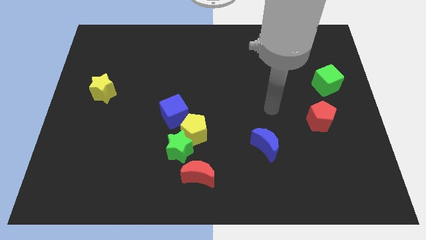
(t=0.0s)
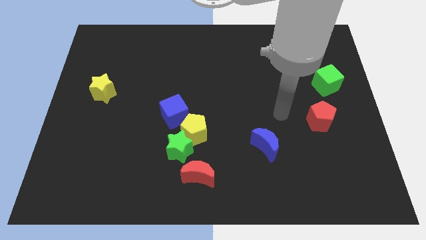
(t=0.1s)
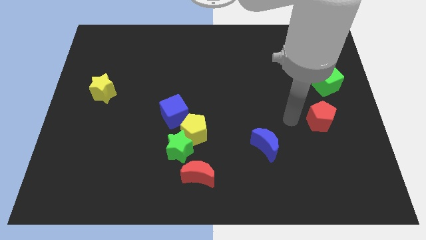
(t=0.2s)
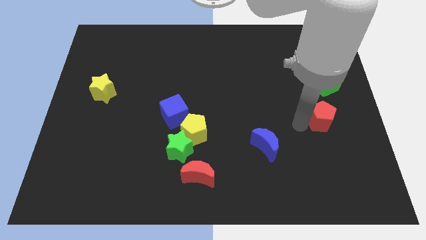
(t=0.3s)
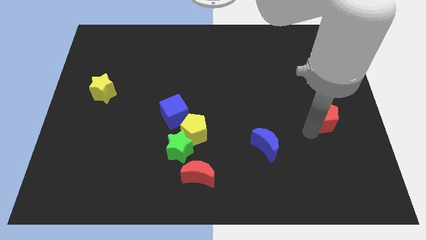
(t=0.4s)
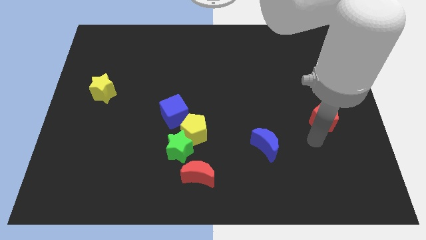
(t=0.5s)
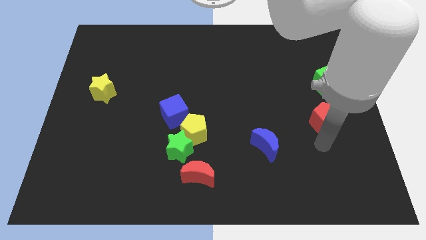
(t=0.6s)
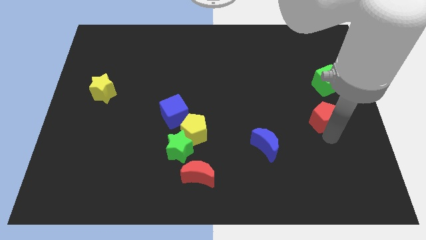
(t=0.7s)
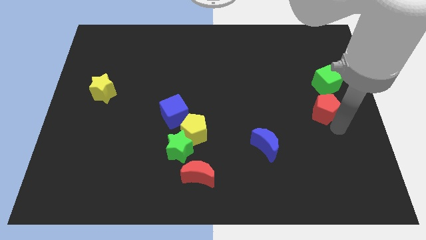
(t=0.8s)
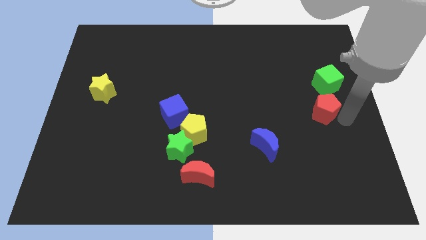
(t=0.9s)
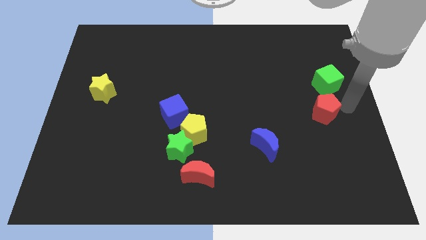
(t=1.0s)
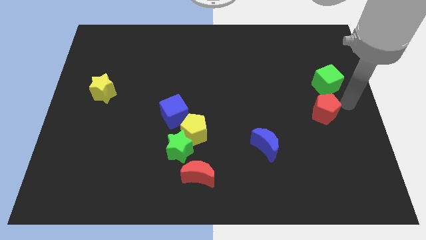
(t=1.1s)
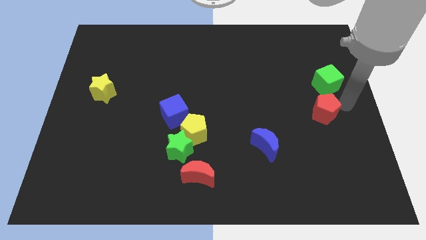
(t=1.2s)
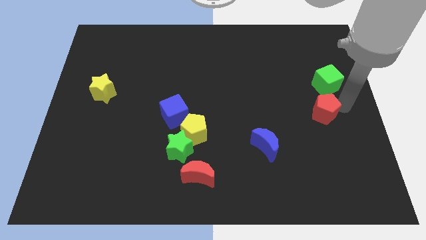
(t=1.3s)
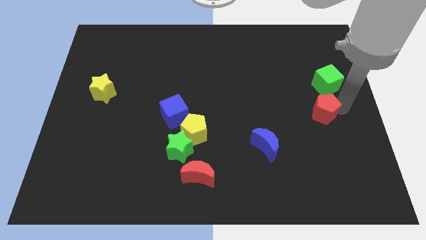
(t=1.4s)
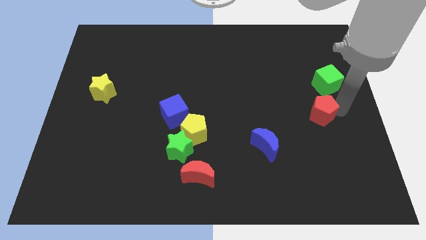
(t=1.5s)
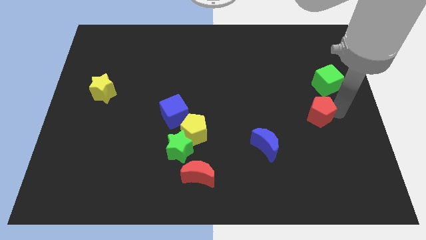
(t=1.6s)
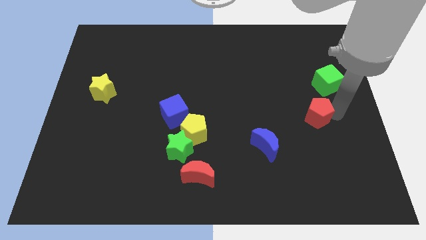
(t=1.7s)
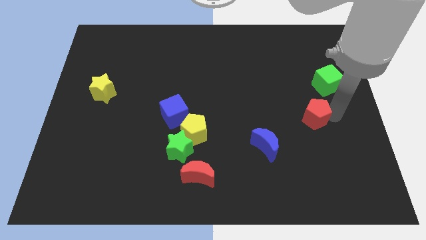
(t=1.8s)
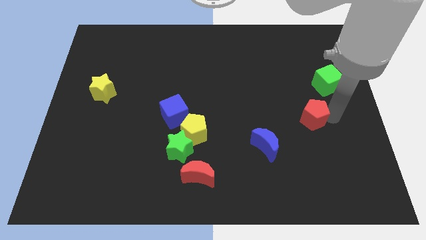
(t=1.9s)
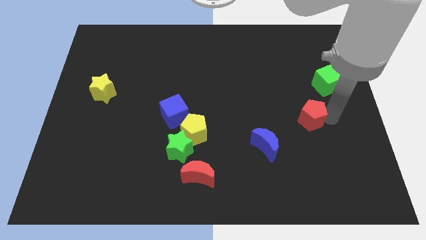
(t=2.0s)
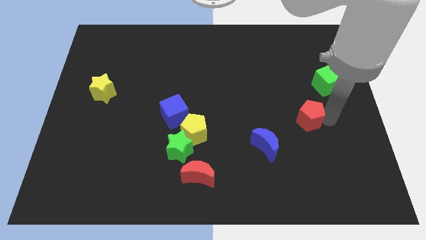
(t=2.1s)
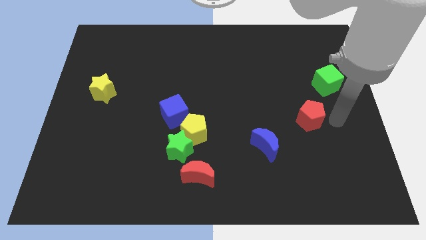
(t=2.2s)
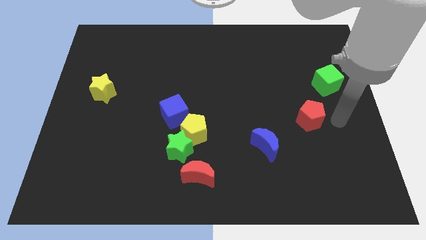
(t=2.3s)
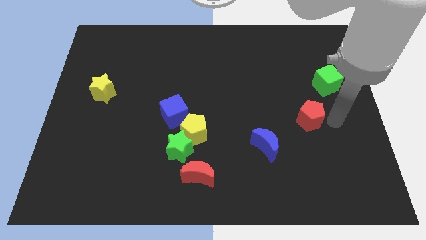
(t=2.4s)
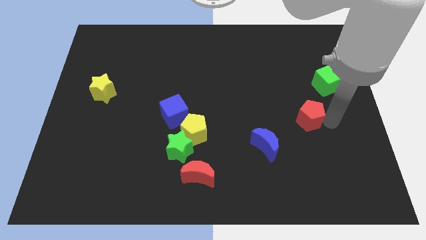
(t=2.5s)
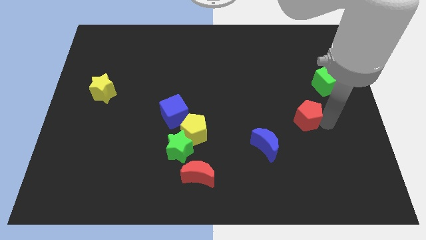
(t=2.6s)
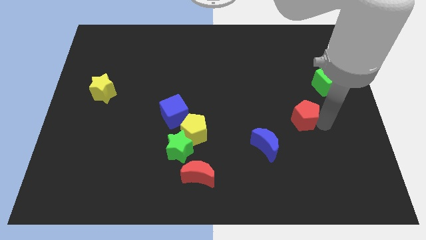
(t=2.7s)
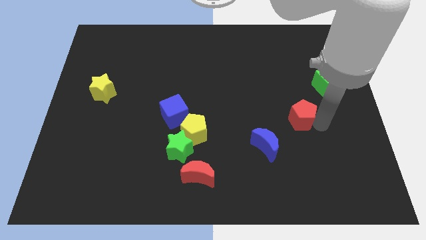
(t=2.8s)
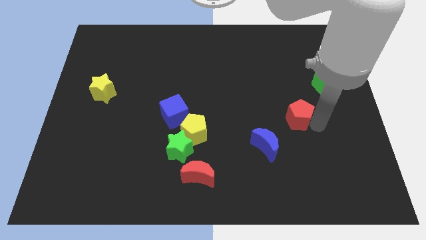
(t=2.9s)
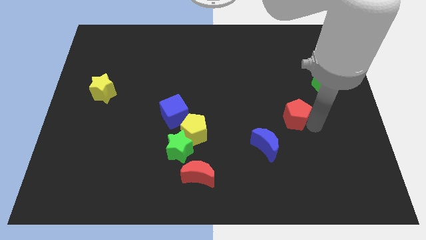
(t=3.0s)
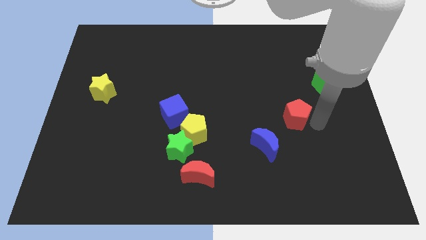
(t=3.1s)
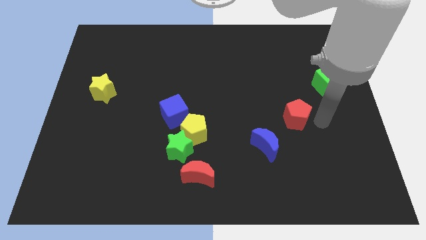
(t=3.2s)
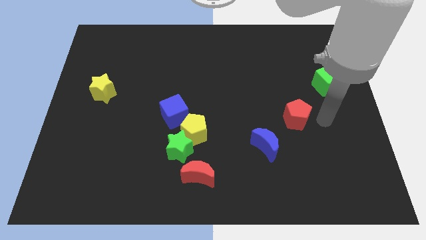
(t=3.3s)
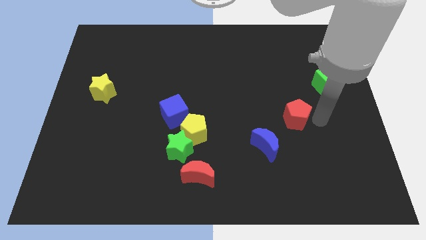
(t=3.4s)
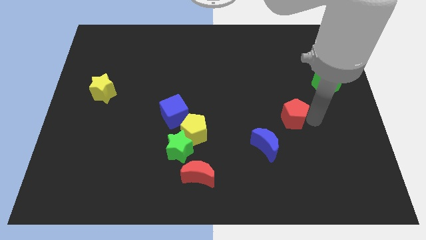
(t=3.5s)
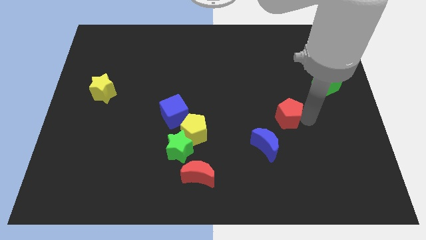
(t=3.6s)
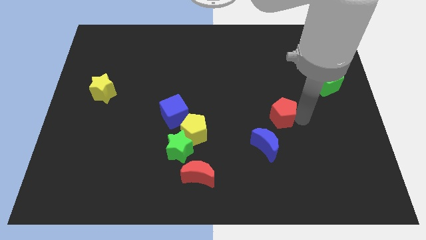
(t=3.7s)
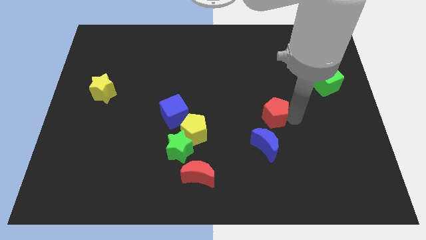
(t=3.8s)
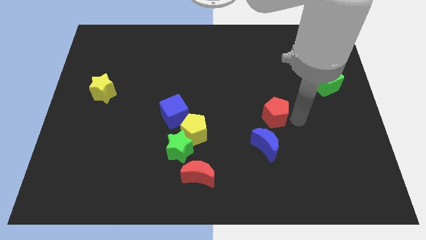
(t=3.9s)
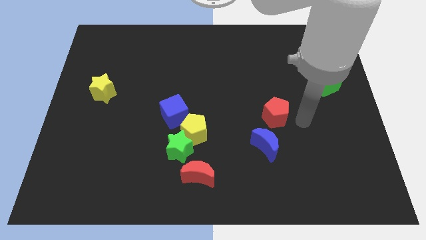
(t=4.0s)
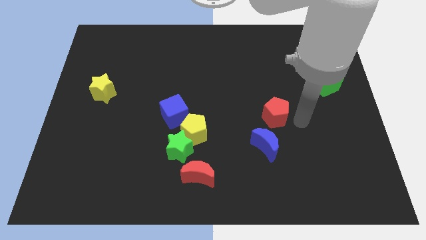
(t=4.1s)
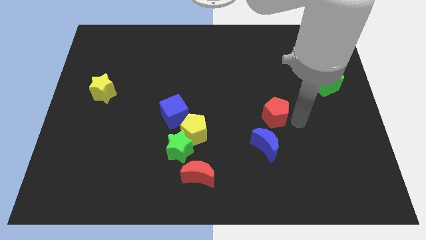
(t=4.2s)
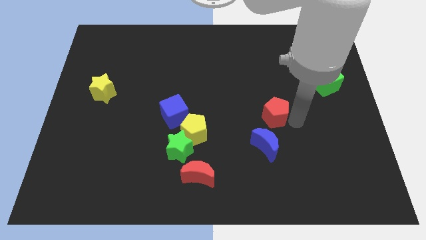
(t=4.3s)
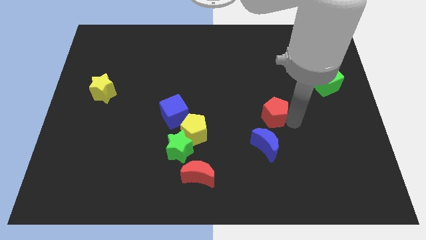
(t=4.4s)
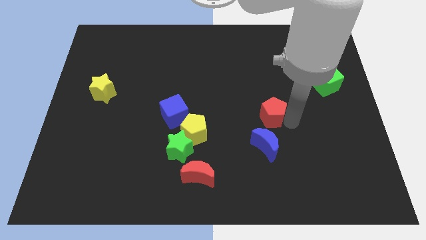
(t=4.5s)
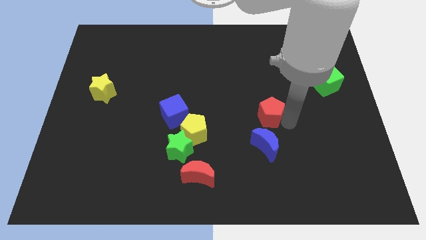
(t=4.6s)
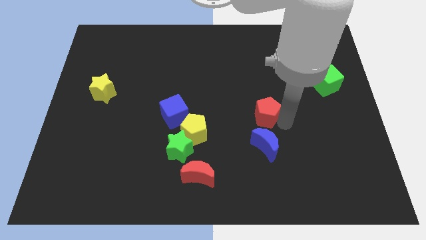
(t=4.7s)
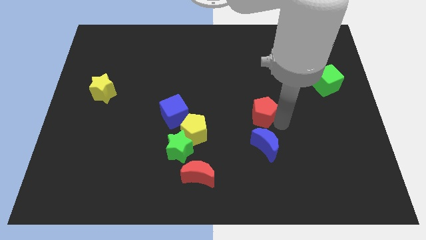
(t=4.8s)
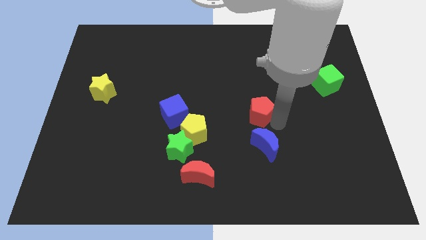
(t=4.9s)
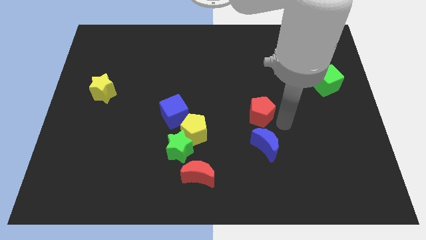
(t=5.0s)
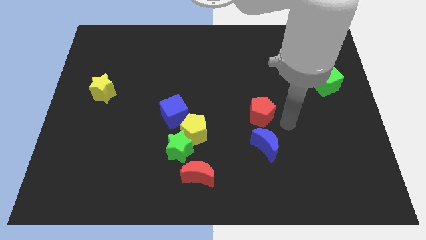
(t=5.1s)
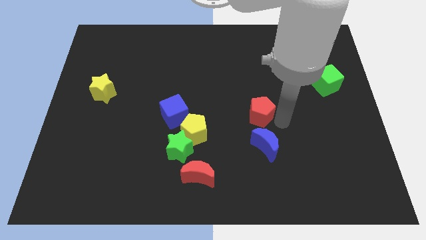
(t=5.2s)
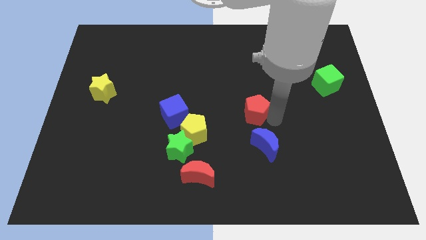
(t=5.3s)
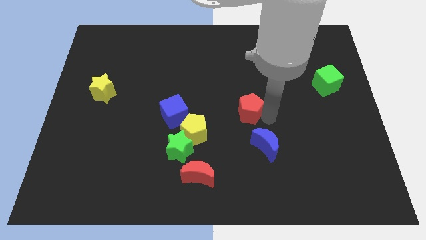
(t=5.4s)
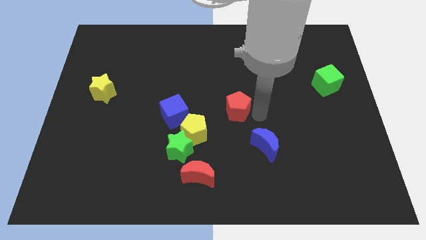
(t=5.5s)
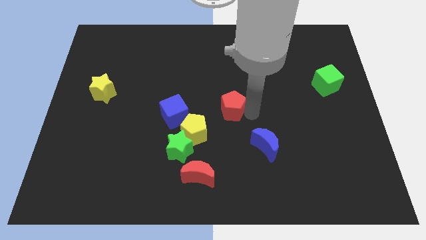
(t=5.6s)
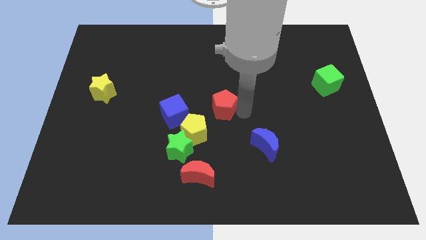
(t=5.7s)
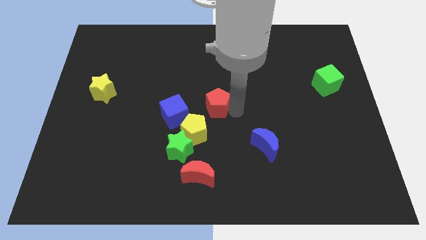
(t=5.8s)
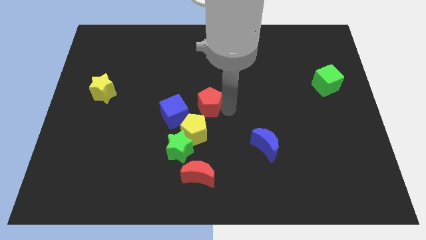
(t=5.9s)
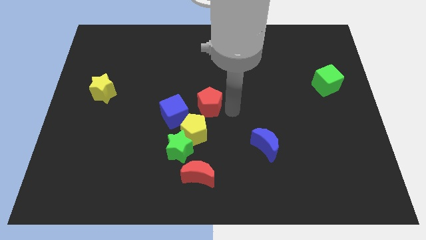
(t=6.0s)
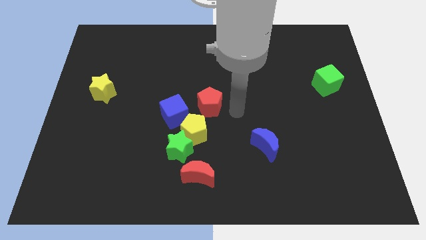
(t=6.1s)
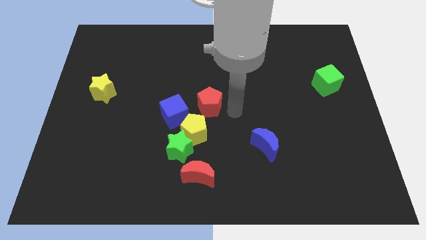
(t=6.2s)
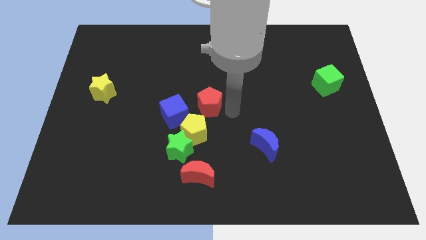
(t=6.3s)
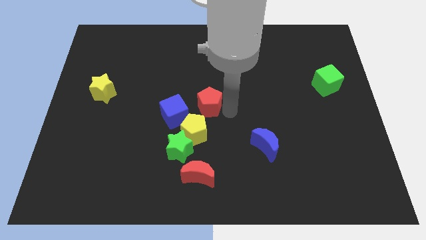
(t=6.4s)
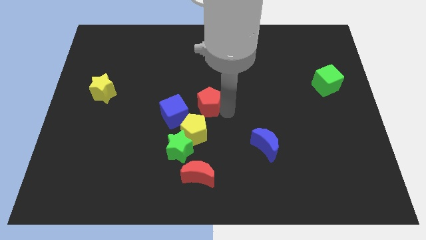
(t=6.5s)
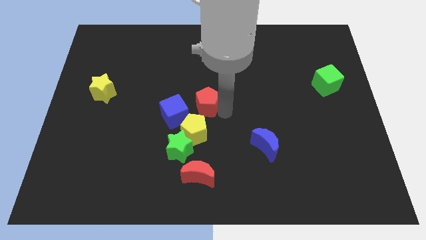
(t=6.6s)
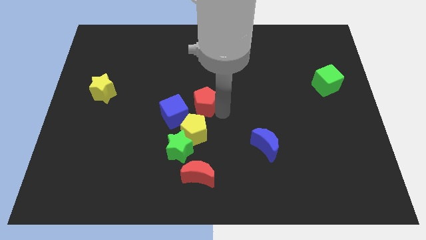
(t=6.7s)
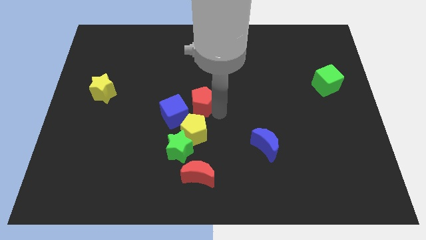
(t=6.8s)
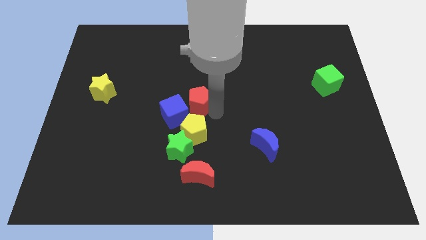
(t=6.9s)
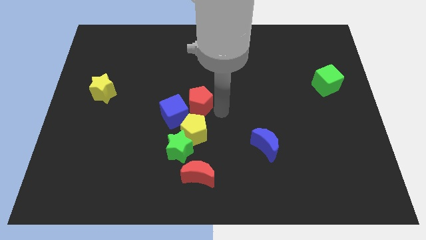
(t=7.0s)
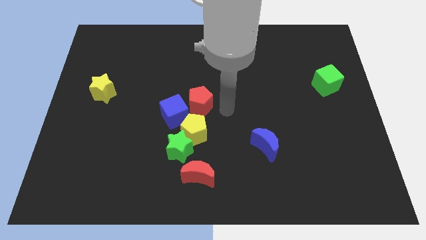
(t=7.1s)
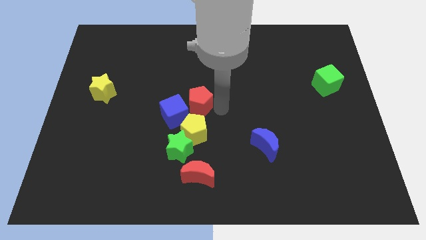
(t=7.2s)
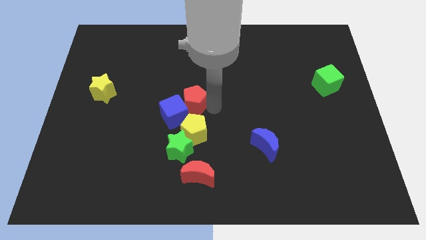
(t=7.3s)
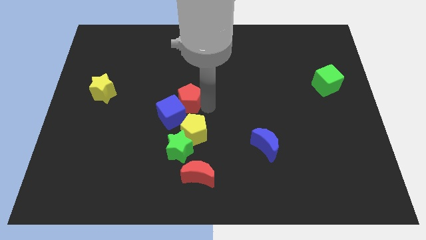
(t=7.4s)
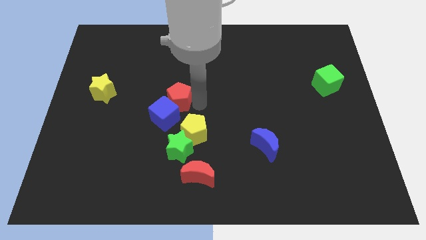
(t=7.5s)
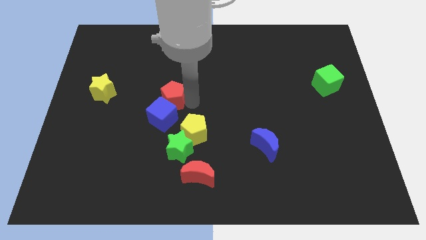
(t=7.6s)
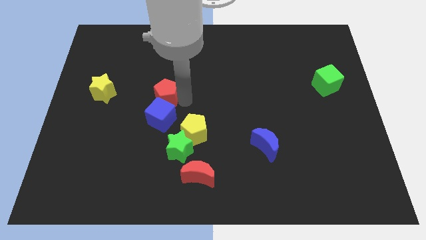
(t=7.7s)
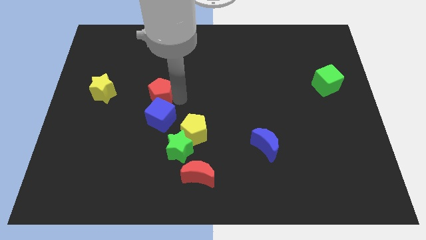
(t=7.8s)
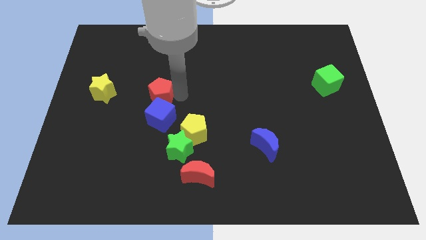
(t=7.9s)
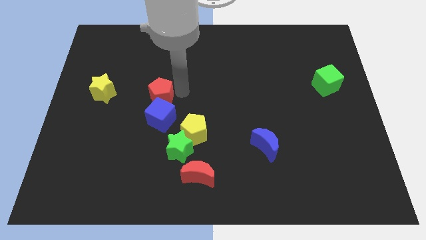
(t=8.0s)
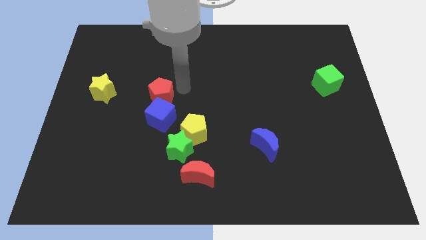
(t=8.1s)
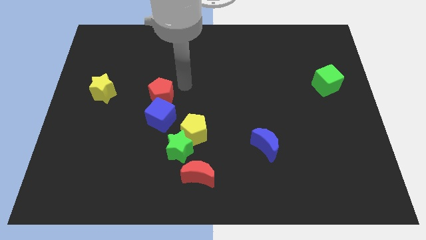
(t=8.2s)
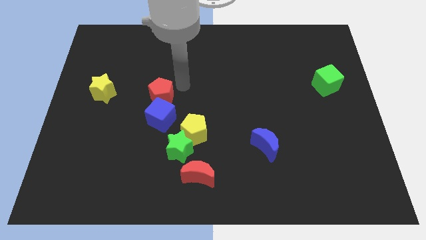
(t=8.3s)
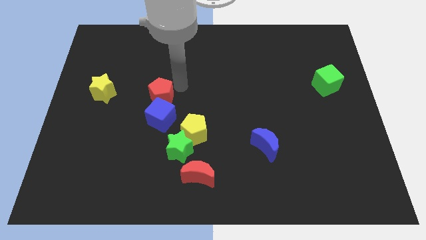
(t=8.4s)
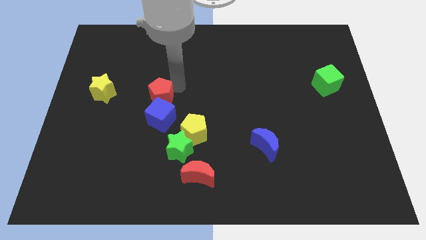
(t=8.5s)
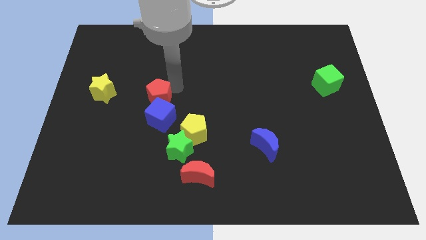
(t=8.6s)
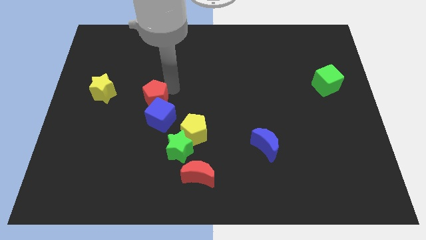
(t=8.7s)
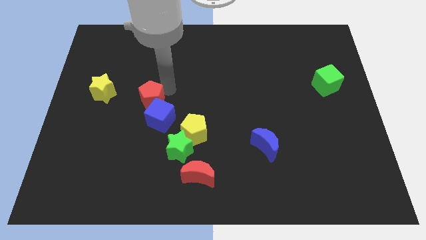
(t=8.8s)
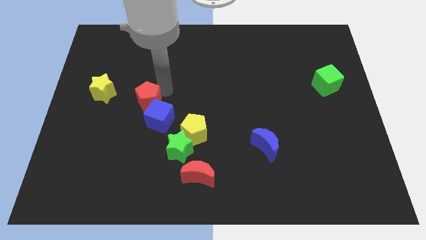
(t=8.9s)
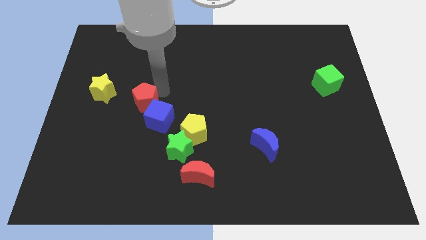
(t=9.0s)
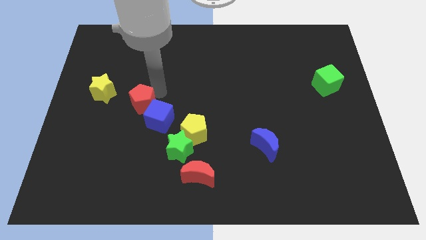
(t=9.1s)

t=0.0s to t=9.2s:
push the red pentagon to the bottom right of the yellow star
